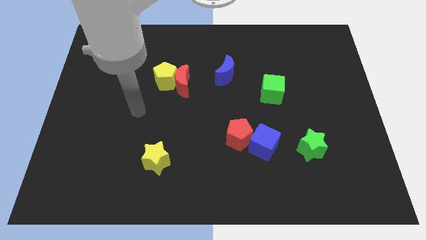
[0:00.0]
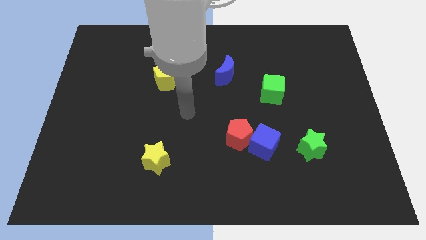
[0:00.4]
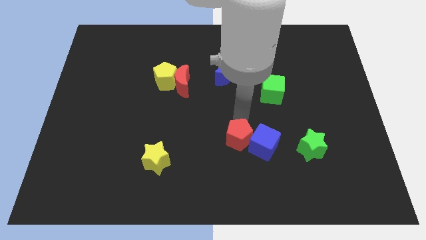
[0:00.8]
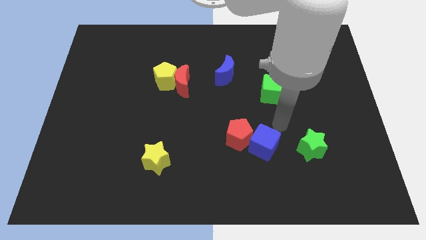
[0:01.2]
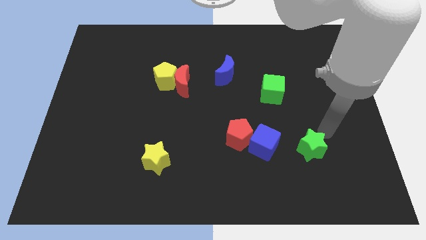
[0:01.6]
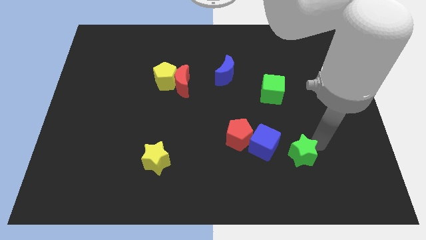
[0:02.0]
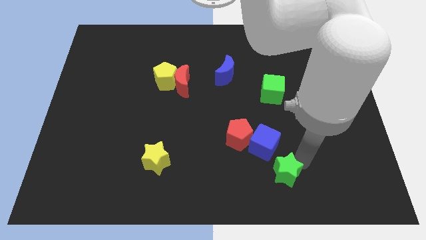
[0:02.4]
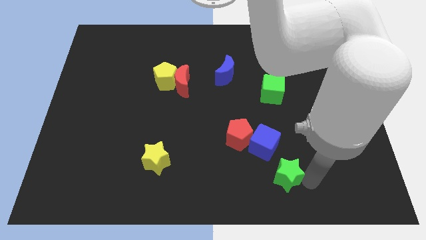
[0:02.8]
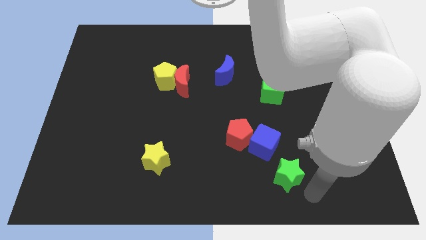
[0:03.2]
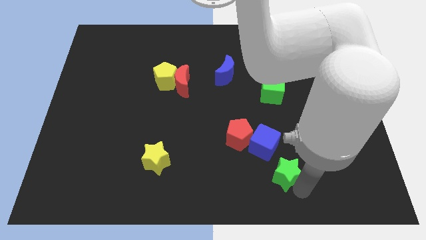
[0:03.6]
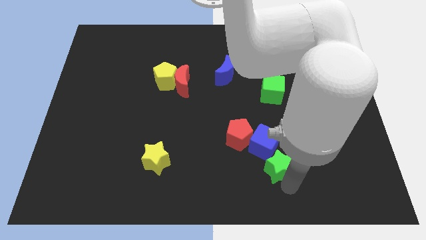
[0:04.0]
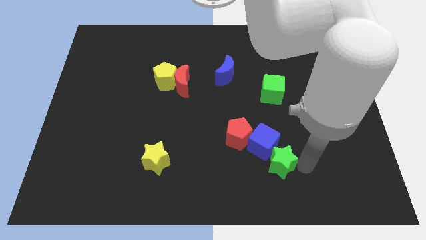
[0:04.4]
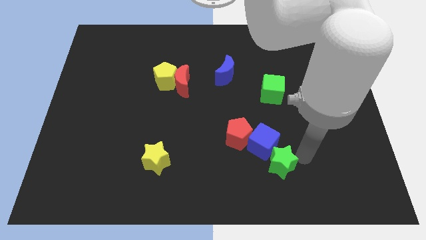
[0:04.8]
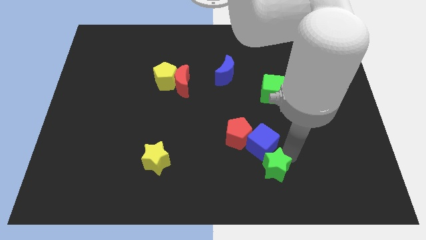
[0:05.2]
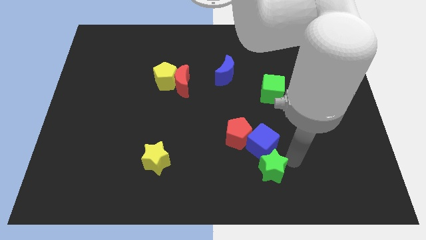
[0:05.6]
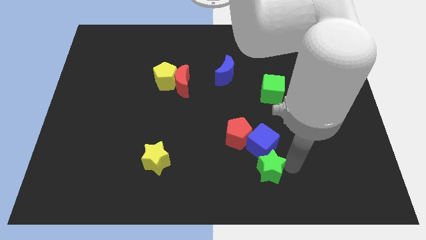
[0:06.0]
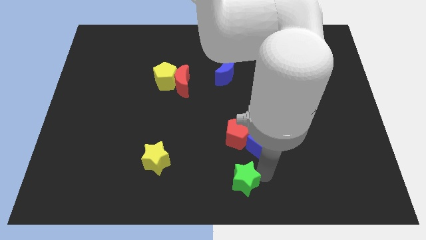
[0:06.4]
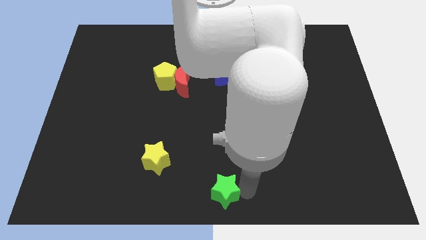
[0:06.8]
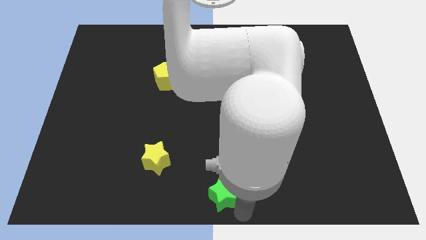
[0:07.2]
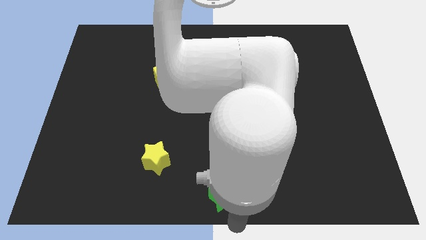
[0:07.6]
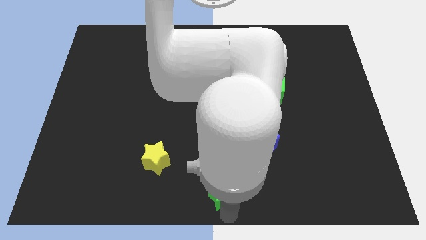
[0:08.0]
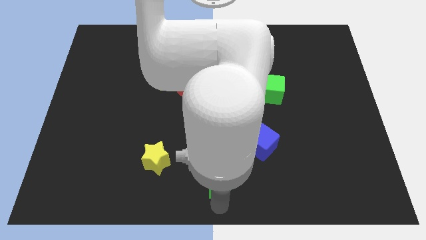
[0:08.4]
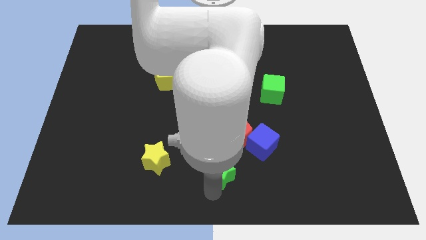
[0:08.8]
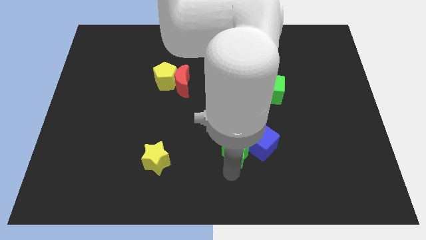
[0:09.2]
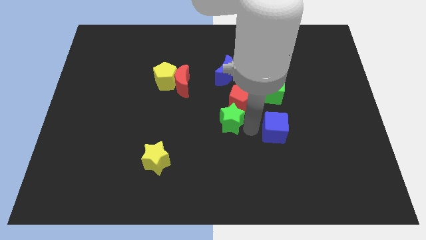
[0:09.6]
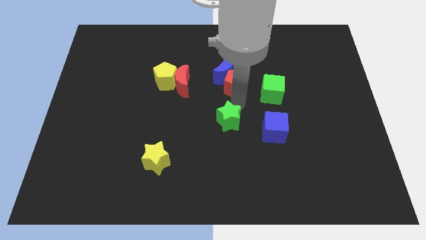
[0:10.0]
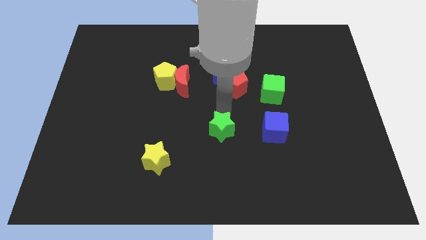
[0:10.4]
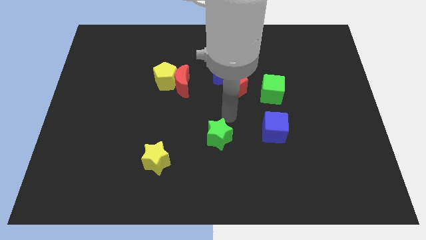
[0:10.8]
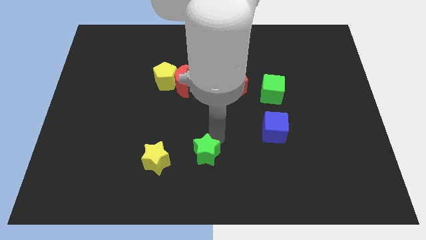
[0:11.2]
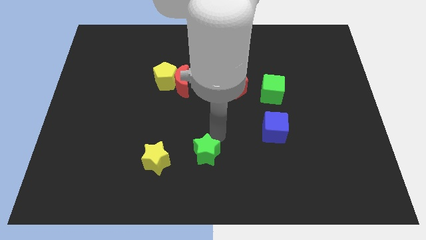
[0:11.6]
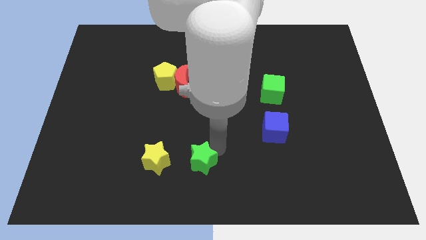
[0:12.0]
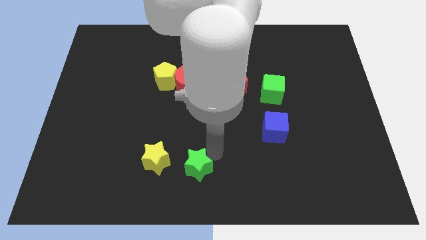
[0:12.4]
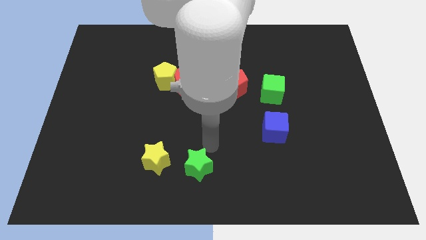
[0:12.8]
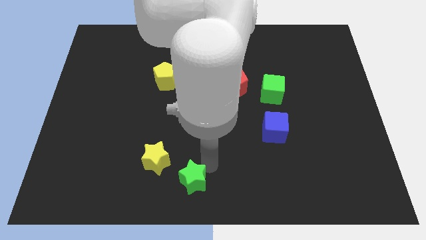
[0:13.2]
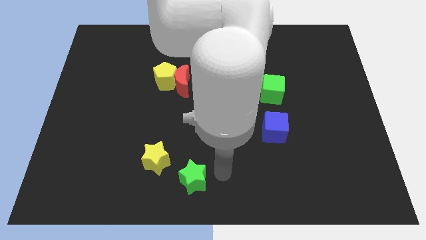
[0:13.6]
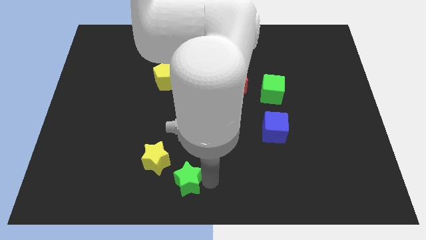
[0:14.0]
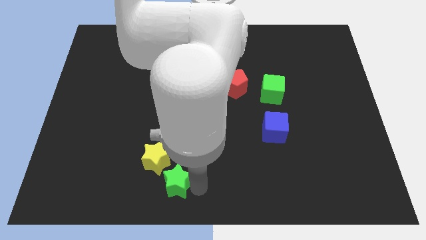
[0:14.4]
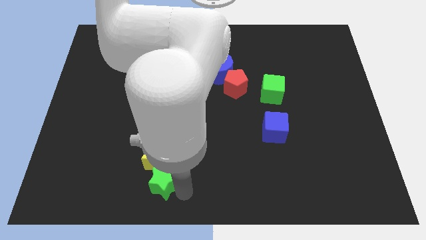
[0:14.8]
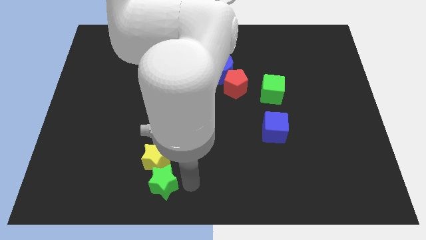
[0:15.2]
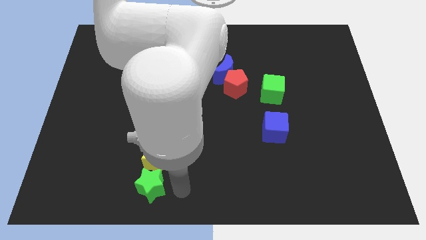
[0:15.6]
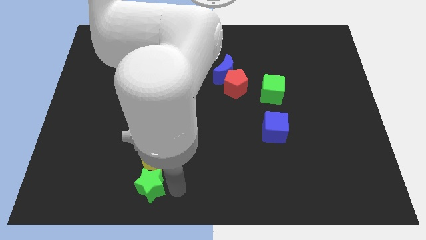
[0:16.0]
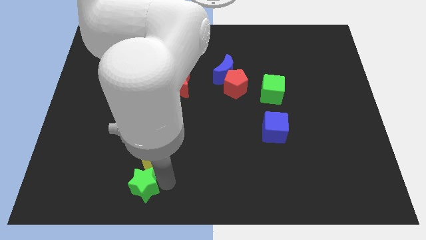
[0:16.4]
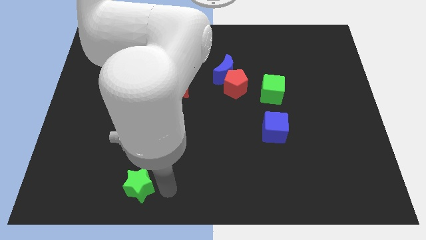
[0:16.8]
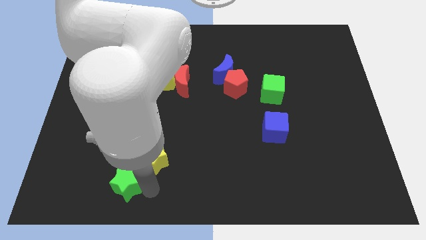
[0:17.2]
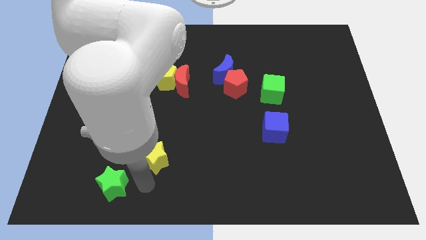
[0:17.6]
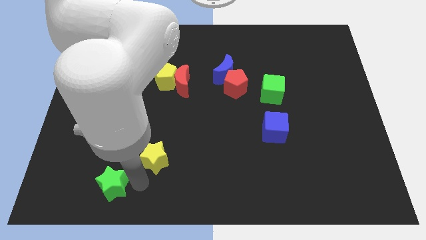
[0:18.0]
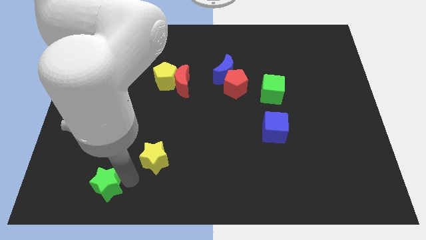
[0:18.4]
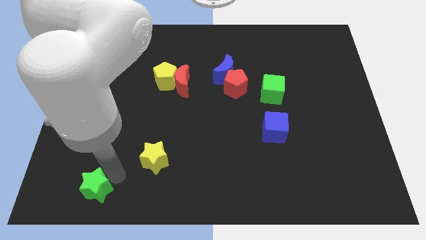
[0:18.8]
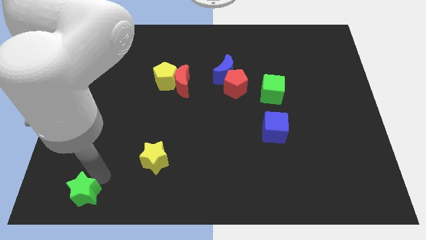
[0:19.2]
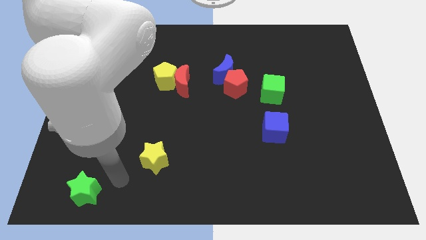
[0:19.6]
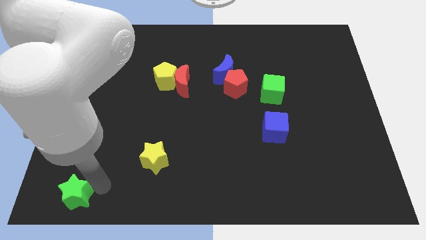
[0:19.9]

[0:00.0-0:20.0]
move the green star to the lower left corner
